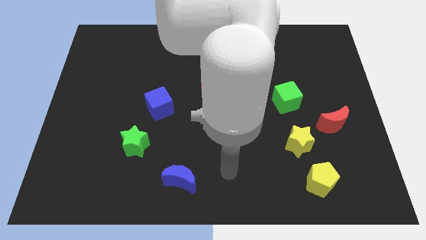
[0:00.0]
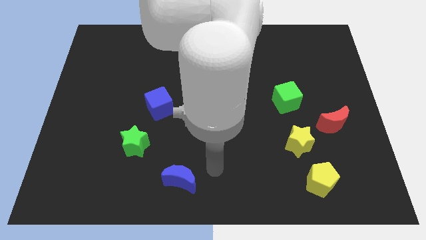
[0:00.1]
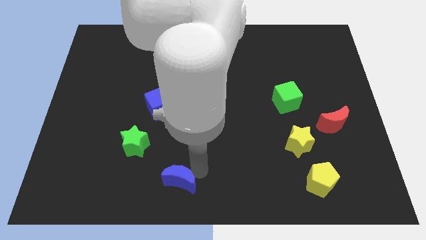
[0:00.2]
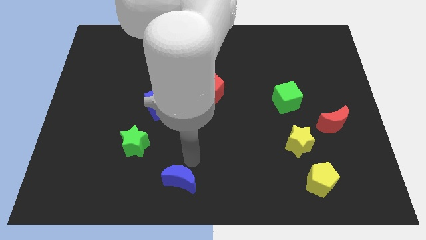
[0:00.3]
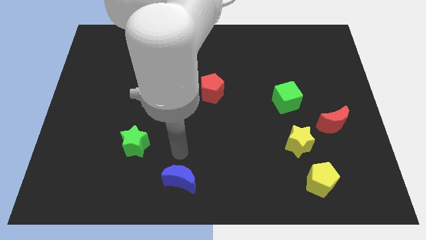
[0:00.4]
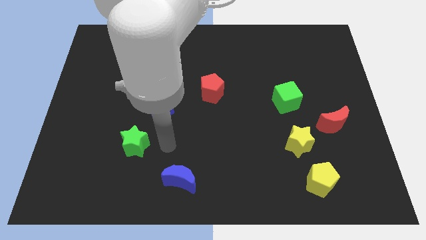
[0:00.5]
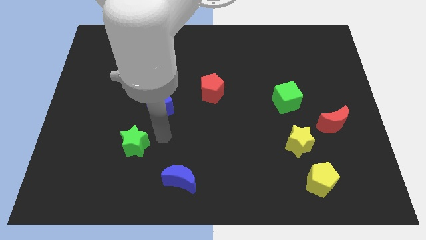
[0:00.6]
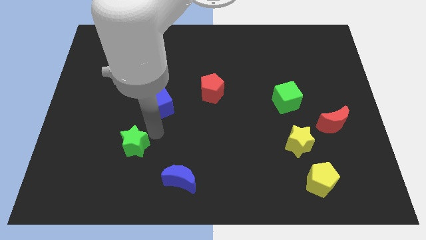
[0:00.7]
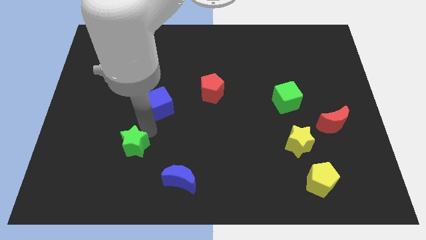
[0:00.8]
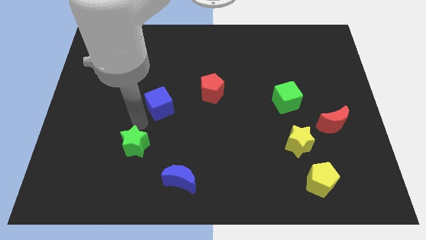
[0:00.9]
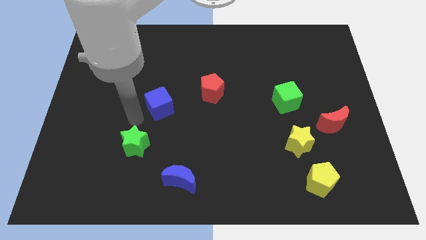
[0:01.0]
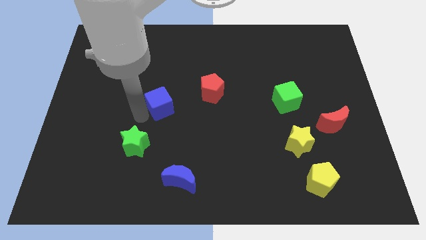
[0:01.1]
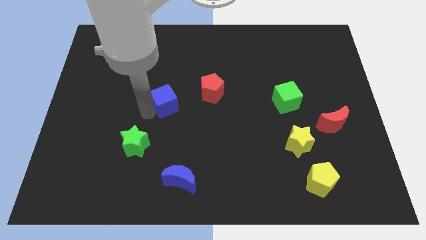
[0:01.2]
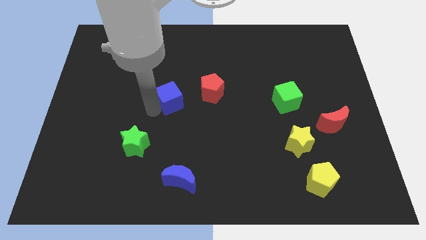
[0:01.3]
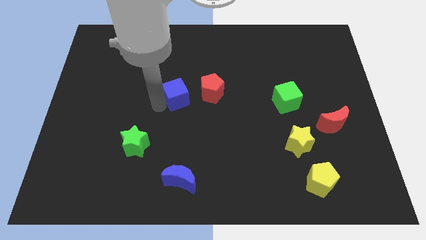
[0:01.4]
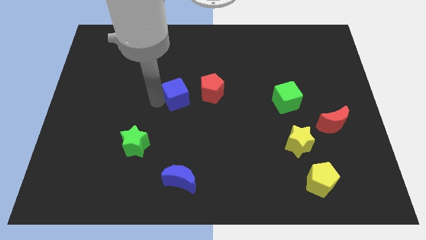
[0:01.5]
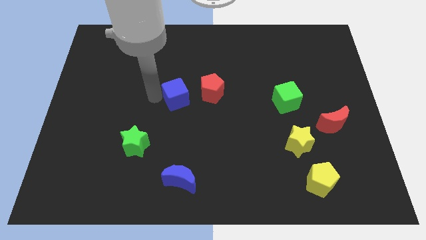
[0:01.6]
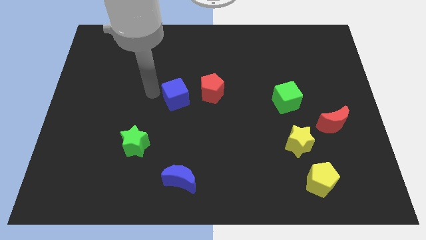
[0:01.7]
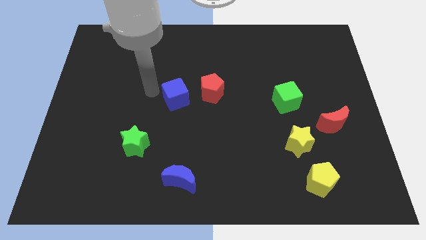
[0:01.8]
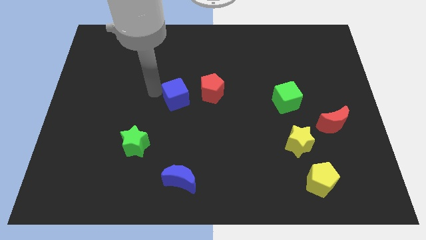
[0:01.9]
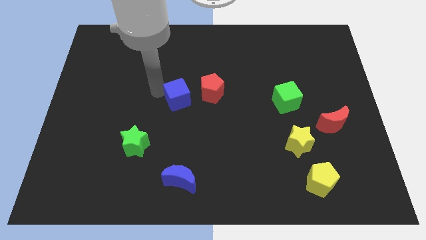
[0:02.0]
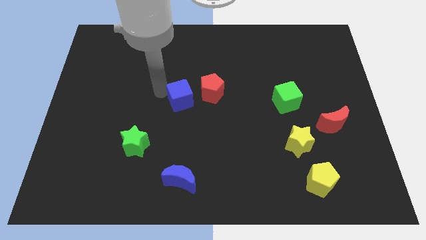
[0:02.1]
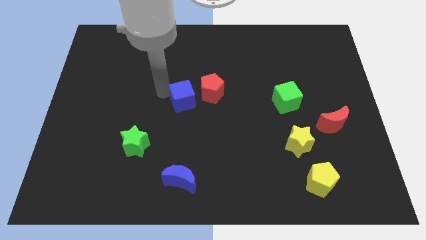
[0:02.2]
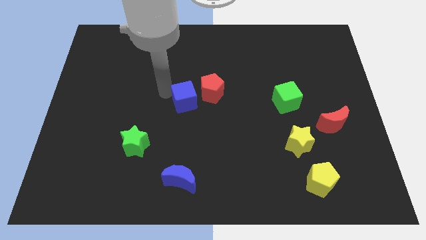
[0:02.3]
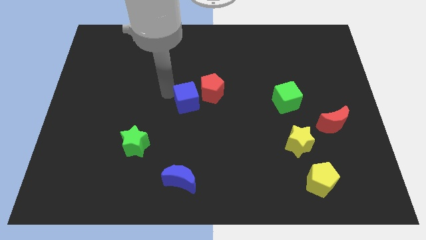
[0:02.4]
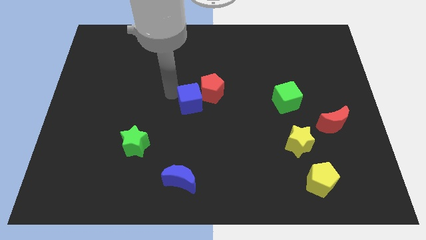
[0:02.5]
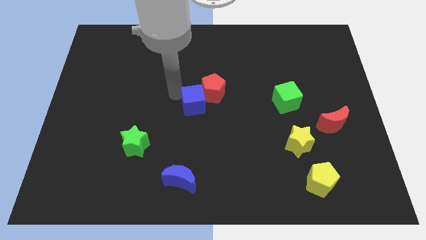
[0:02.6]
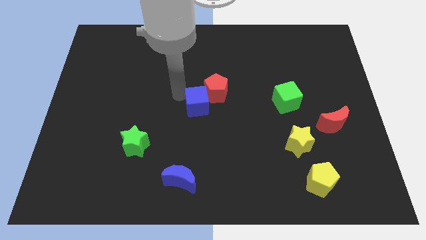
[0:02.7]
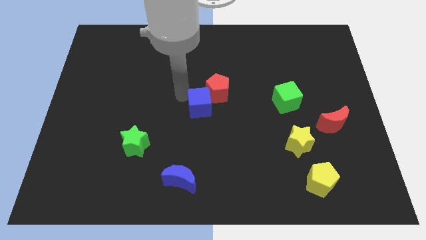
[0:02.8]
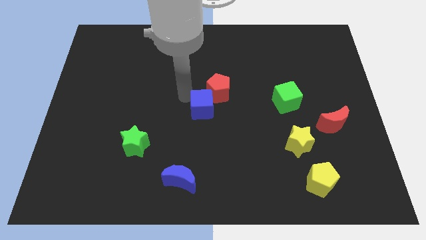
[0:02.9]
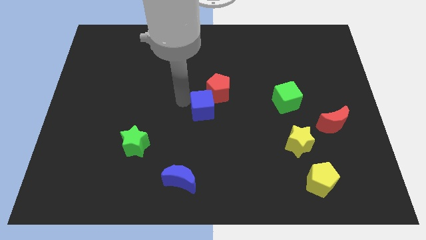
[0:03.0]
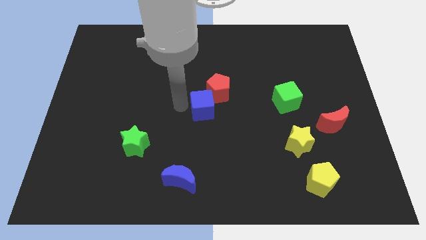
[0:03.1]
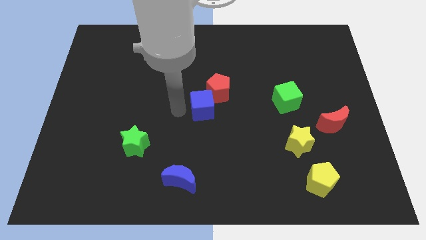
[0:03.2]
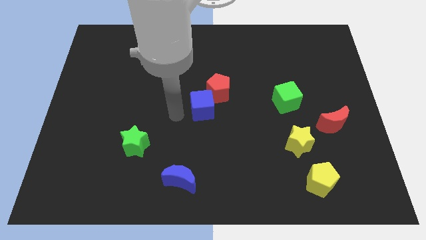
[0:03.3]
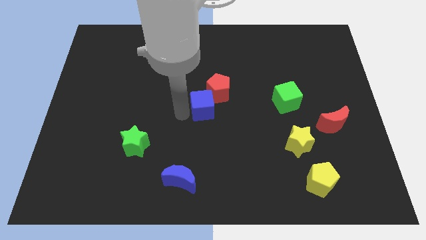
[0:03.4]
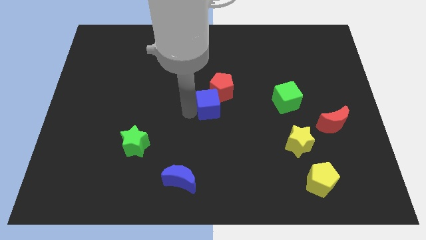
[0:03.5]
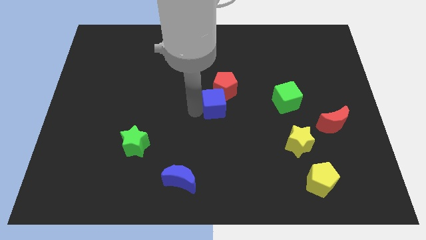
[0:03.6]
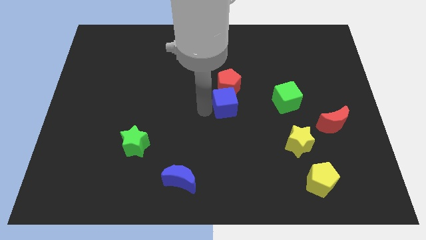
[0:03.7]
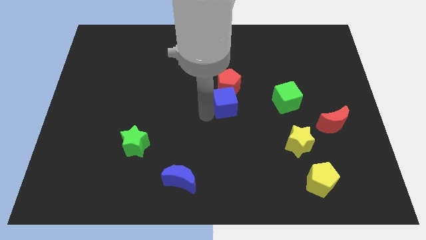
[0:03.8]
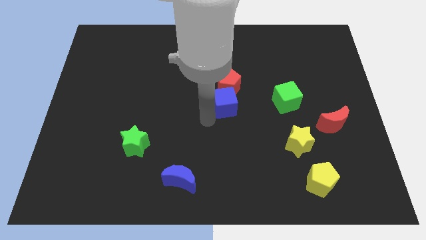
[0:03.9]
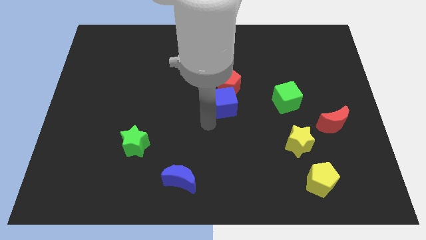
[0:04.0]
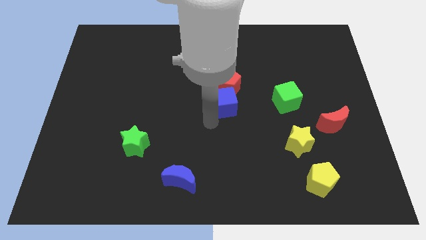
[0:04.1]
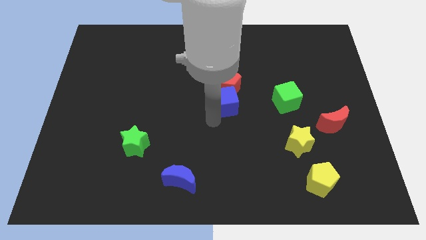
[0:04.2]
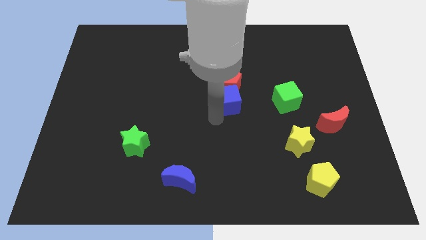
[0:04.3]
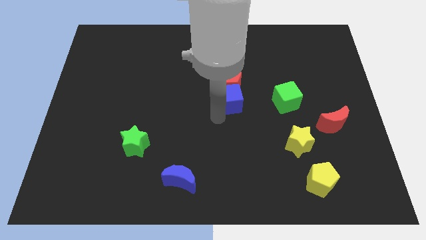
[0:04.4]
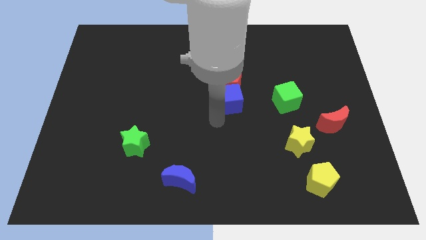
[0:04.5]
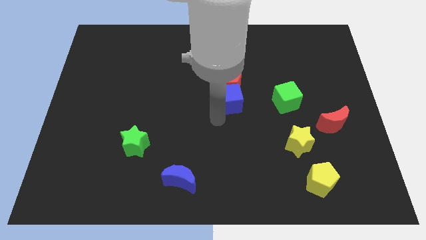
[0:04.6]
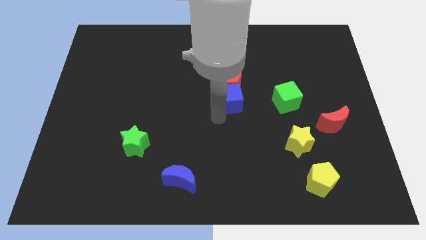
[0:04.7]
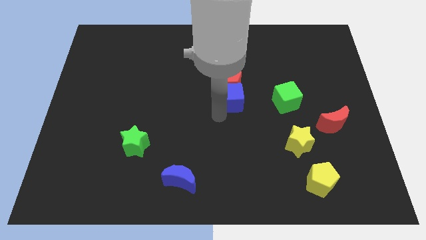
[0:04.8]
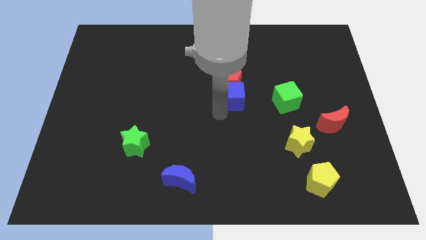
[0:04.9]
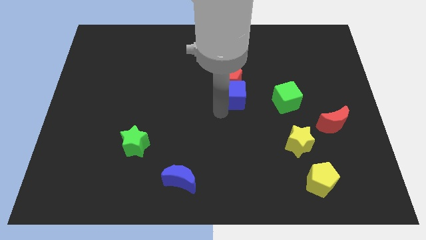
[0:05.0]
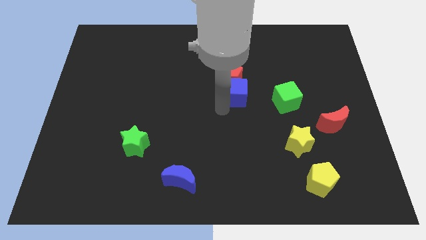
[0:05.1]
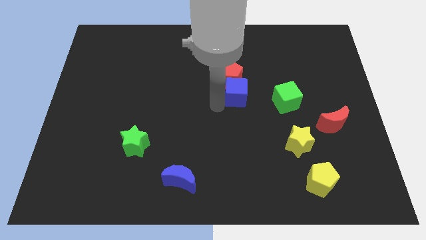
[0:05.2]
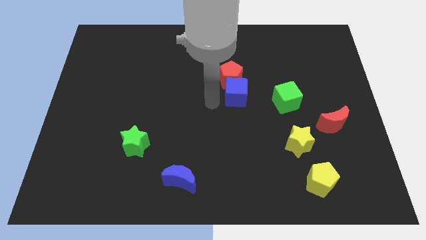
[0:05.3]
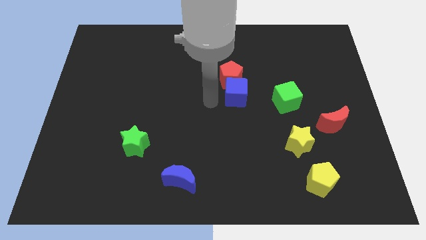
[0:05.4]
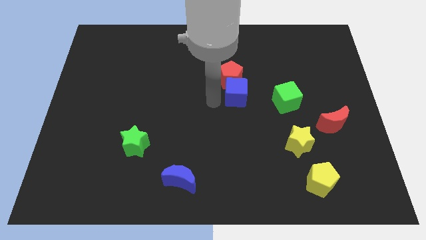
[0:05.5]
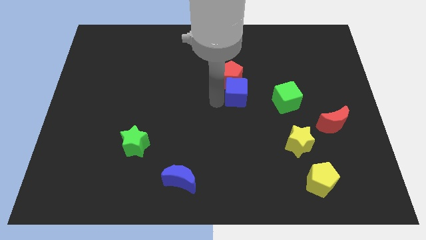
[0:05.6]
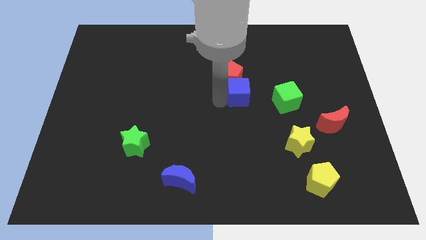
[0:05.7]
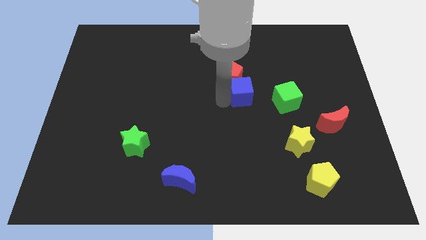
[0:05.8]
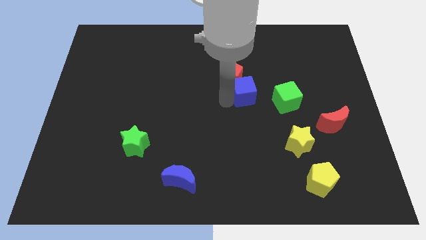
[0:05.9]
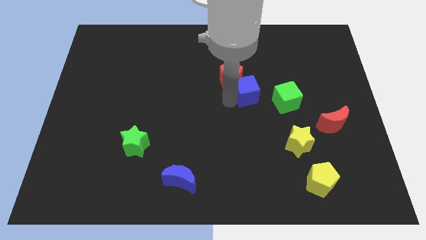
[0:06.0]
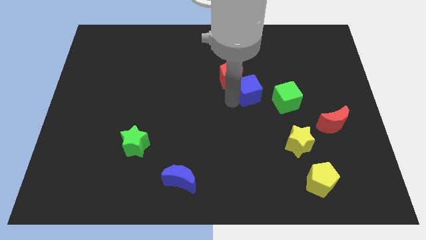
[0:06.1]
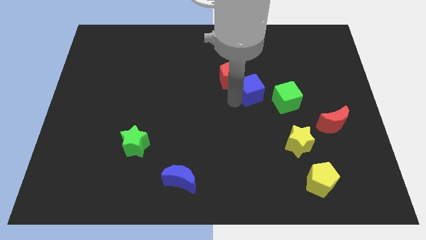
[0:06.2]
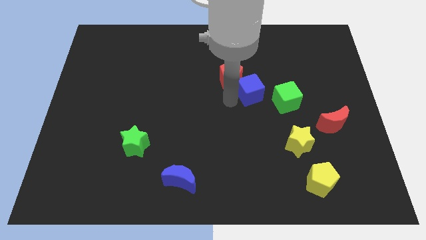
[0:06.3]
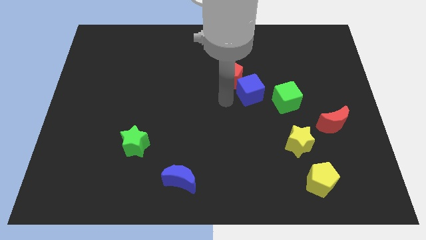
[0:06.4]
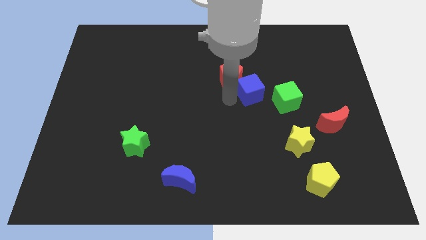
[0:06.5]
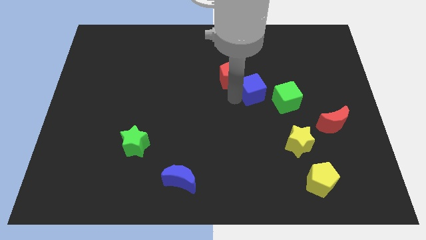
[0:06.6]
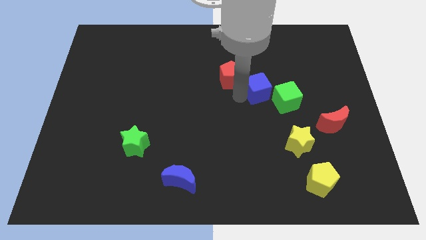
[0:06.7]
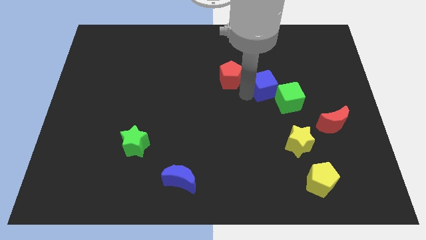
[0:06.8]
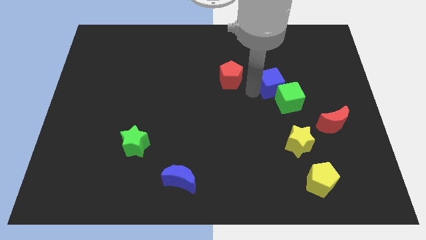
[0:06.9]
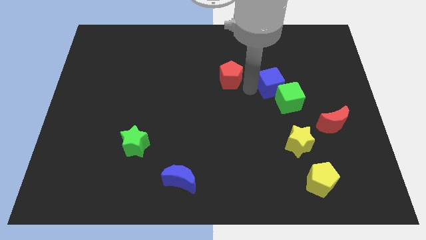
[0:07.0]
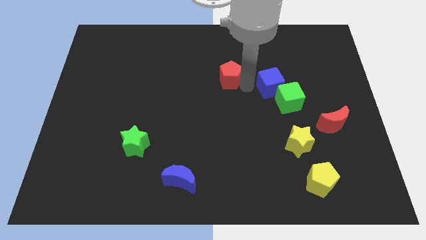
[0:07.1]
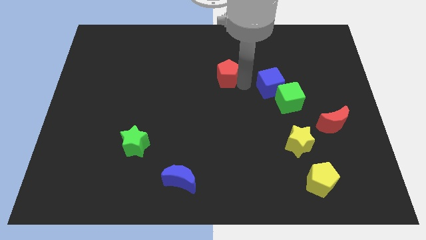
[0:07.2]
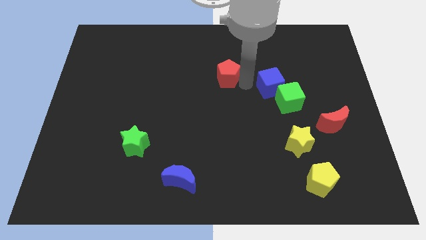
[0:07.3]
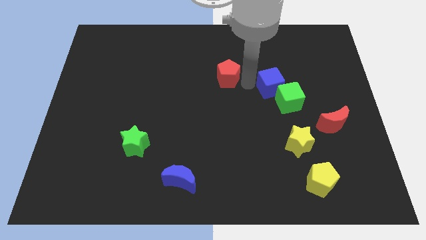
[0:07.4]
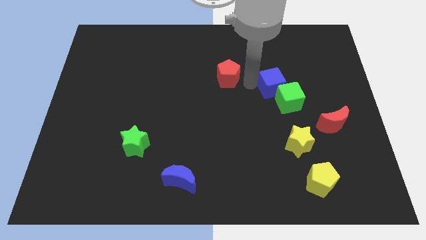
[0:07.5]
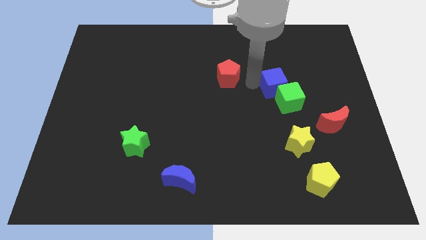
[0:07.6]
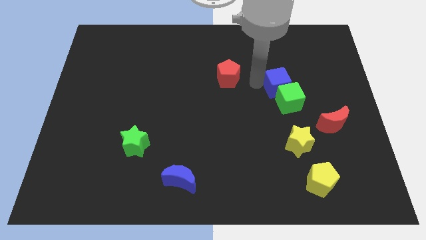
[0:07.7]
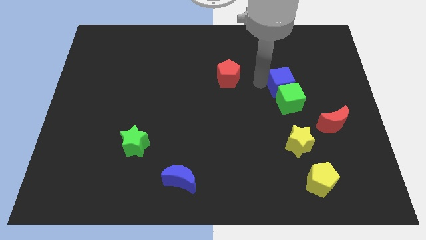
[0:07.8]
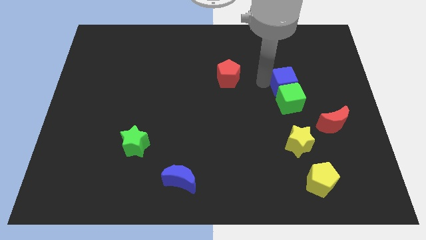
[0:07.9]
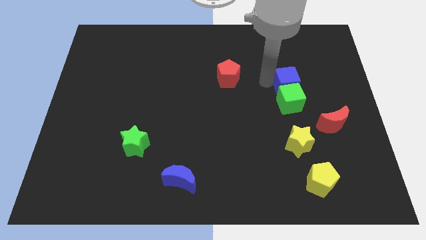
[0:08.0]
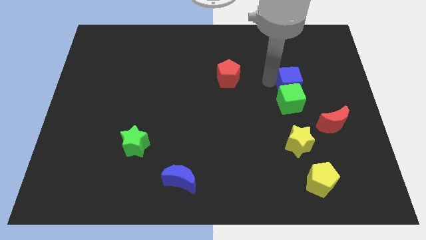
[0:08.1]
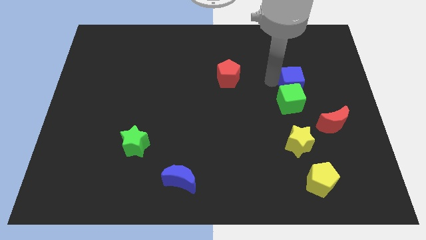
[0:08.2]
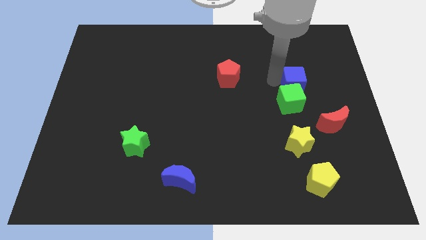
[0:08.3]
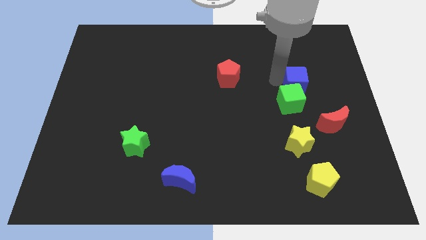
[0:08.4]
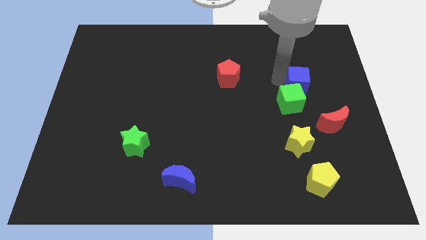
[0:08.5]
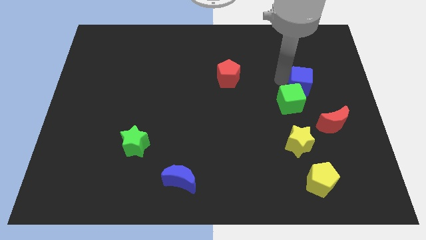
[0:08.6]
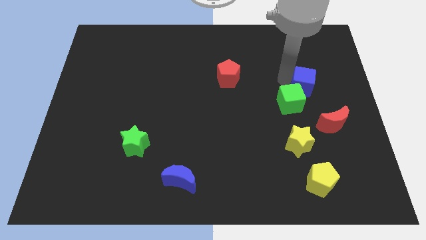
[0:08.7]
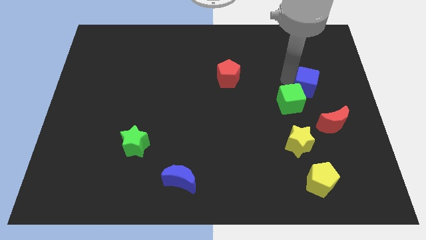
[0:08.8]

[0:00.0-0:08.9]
push the blue cube above the red moon
